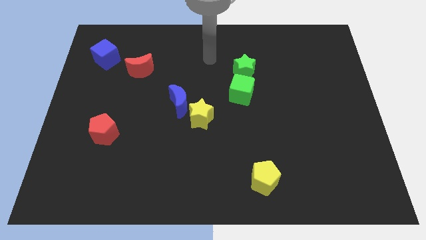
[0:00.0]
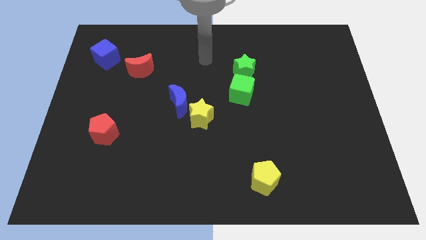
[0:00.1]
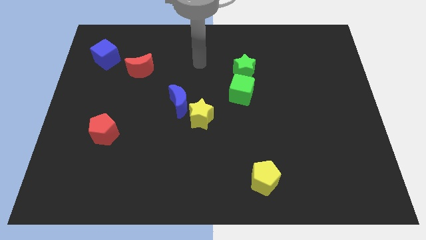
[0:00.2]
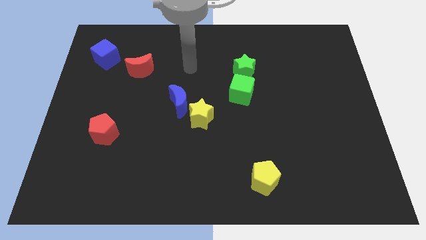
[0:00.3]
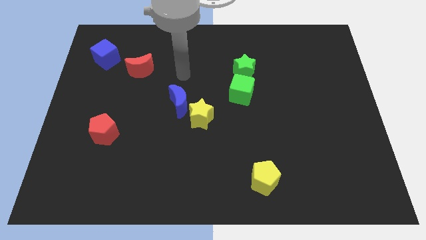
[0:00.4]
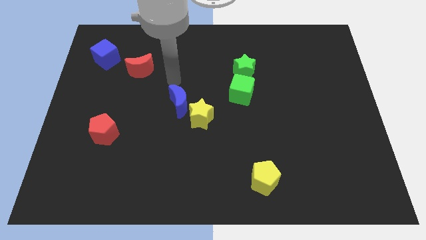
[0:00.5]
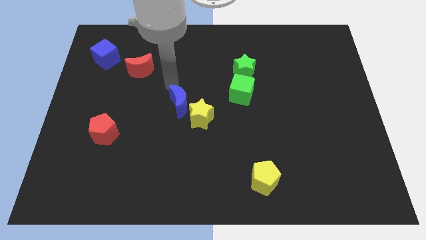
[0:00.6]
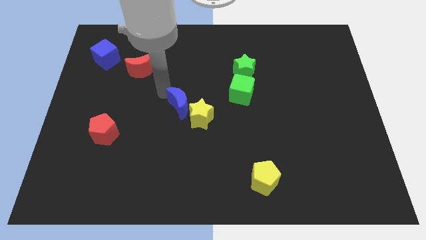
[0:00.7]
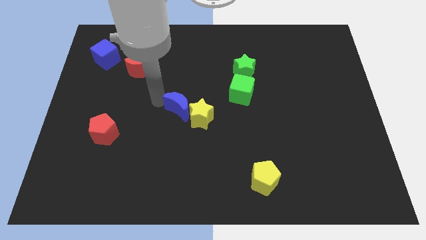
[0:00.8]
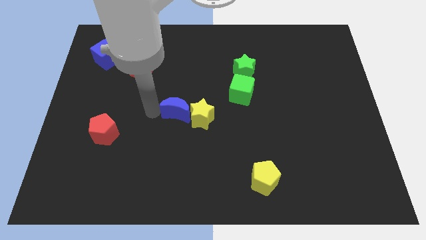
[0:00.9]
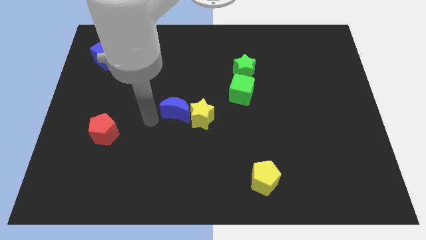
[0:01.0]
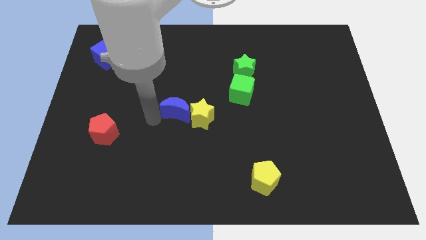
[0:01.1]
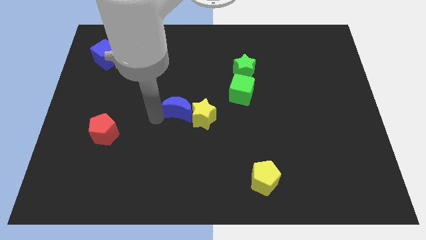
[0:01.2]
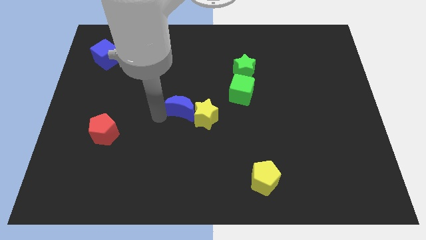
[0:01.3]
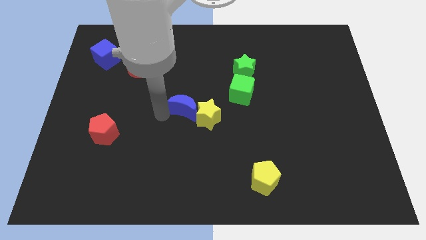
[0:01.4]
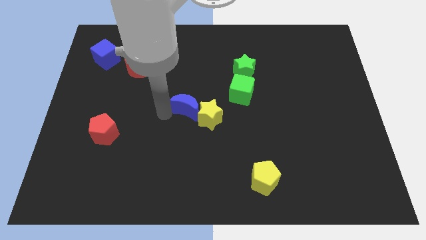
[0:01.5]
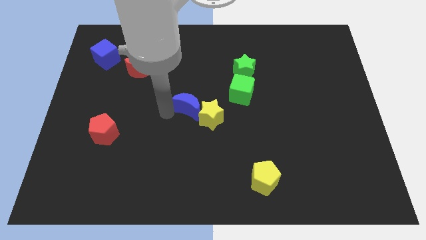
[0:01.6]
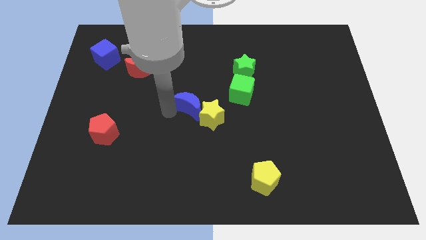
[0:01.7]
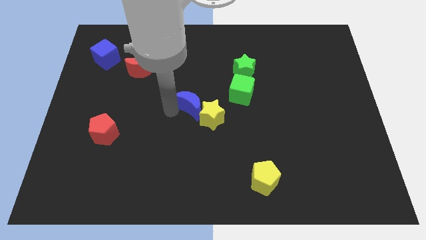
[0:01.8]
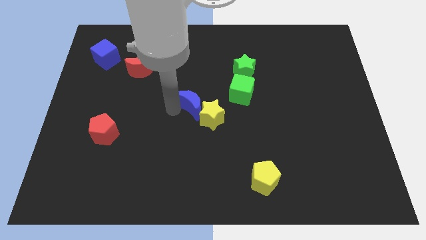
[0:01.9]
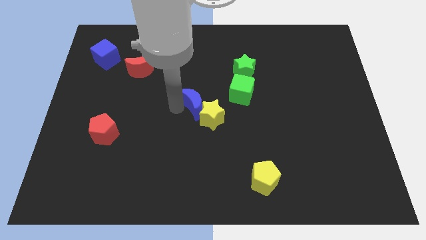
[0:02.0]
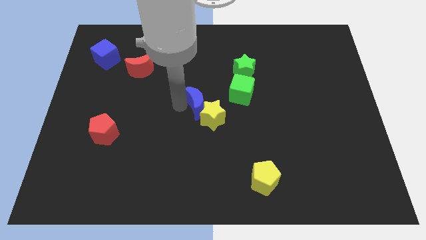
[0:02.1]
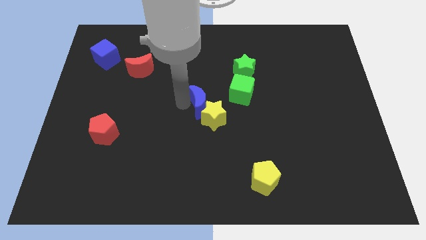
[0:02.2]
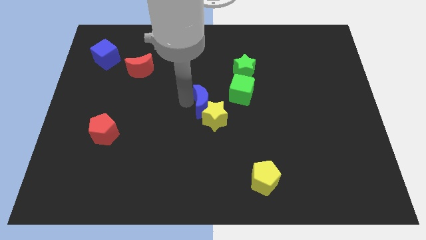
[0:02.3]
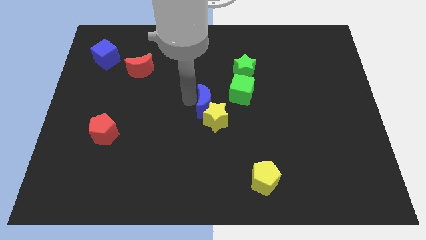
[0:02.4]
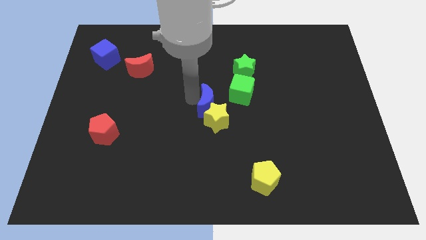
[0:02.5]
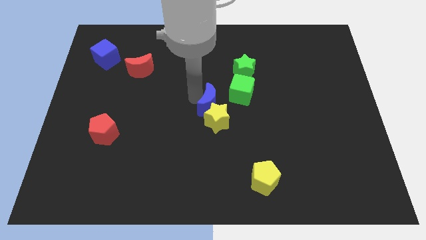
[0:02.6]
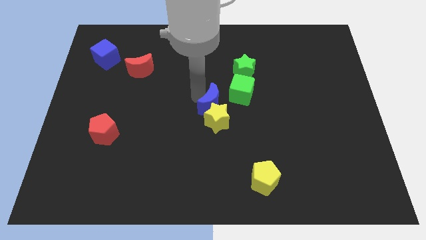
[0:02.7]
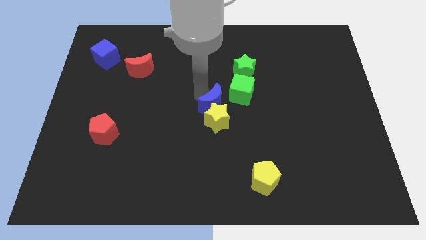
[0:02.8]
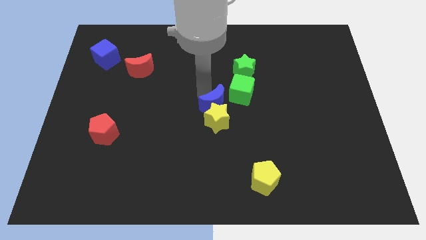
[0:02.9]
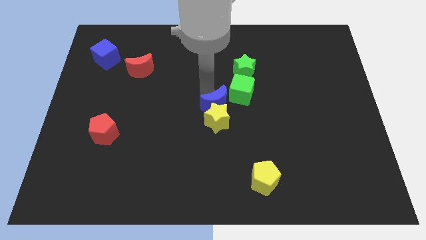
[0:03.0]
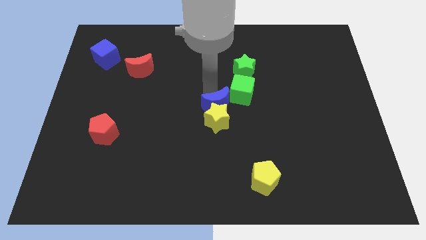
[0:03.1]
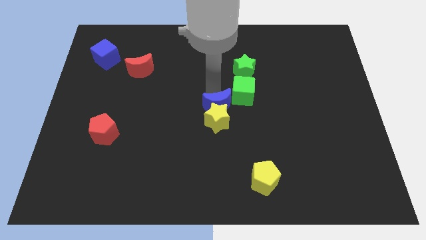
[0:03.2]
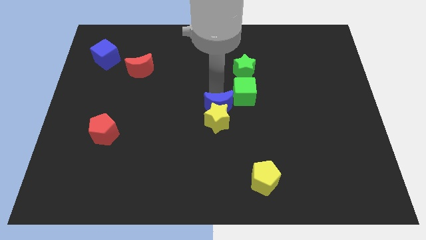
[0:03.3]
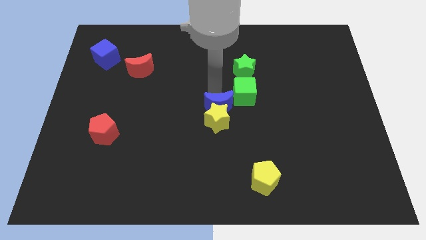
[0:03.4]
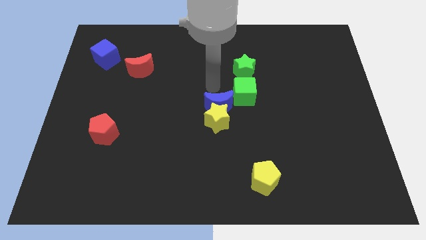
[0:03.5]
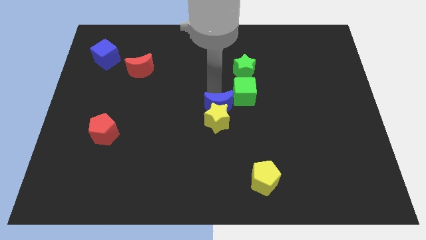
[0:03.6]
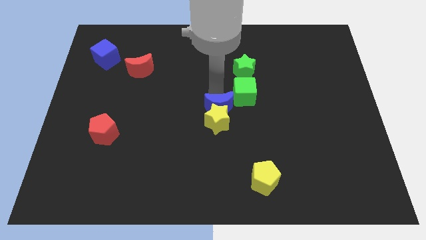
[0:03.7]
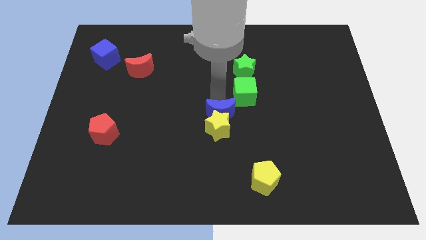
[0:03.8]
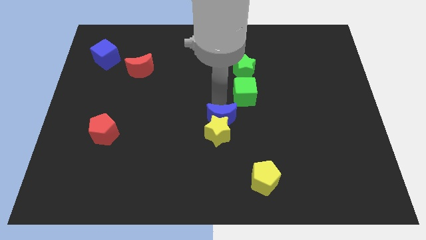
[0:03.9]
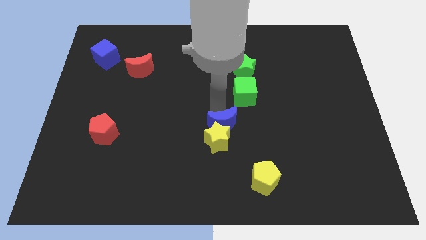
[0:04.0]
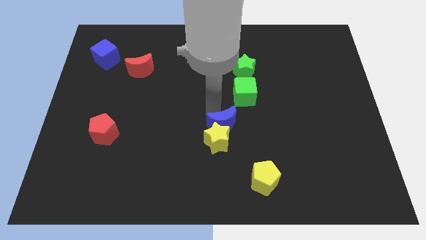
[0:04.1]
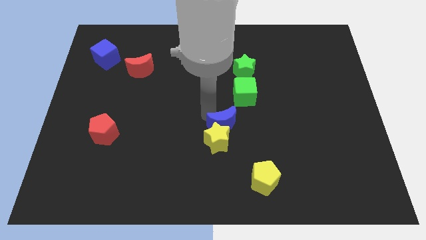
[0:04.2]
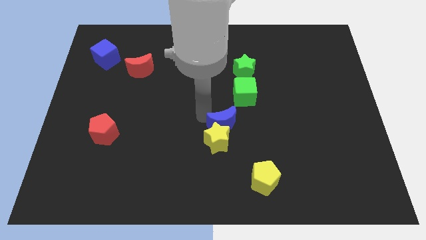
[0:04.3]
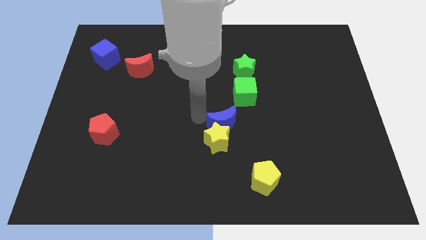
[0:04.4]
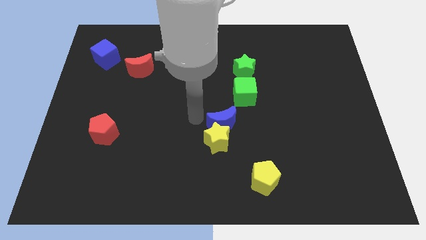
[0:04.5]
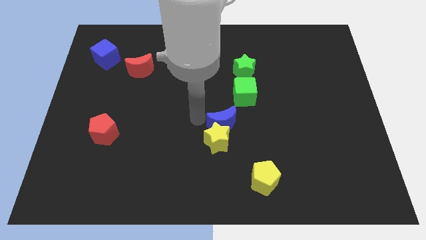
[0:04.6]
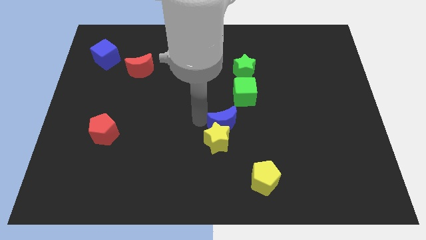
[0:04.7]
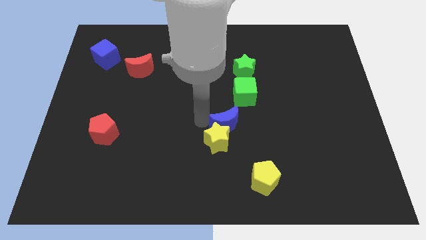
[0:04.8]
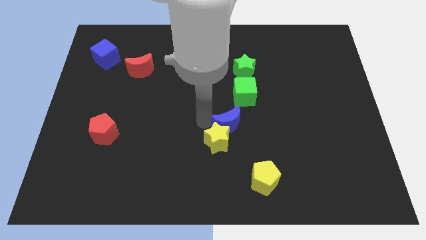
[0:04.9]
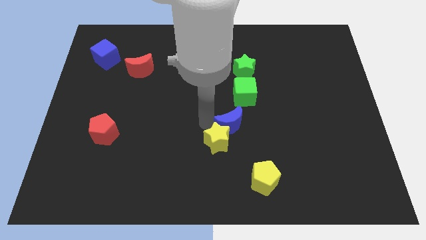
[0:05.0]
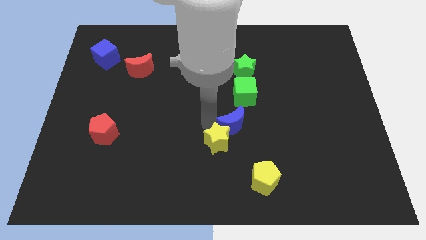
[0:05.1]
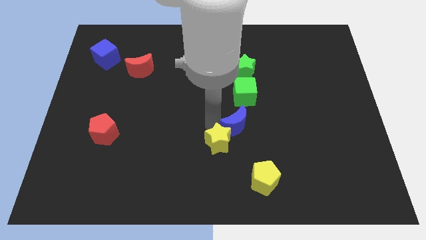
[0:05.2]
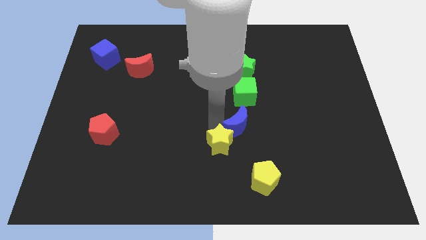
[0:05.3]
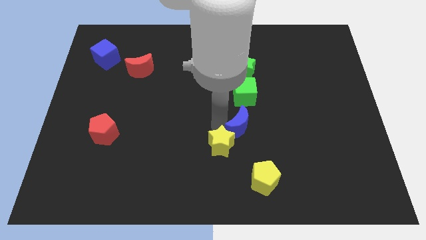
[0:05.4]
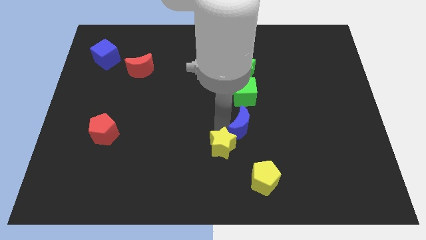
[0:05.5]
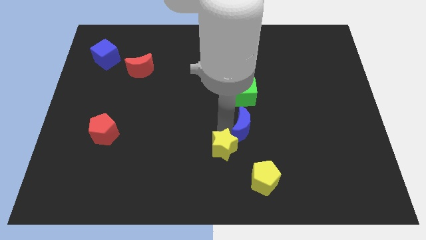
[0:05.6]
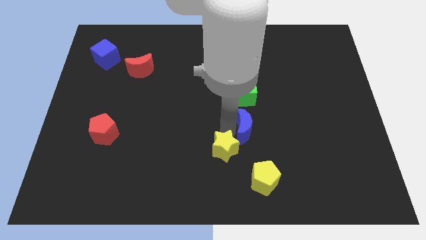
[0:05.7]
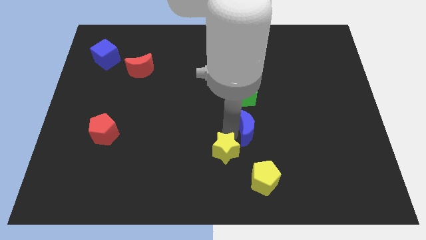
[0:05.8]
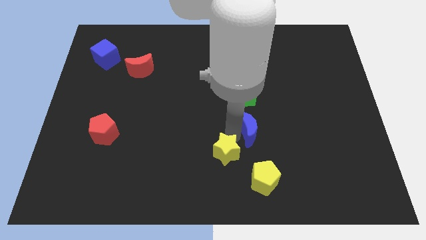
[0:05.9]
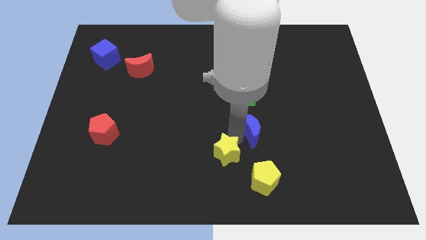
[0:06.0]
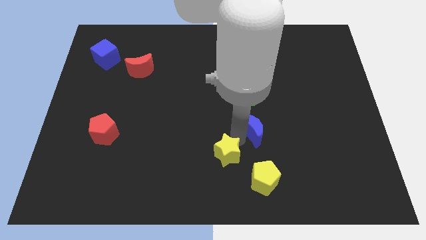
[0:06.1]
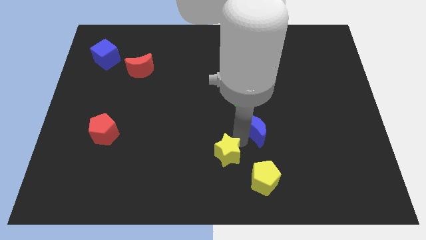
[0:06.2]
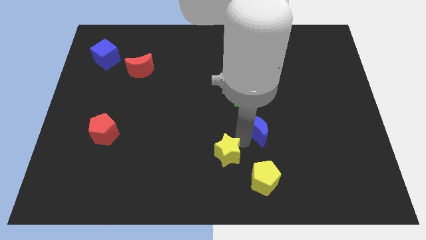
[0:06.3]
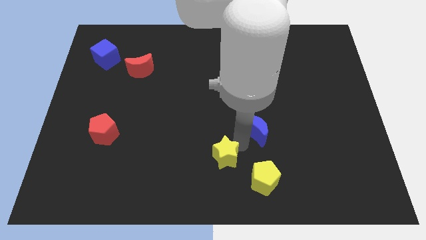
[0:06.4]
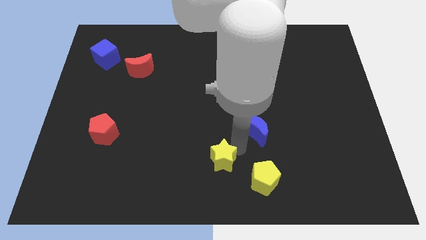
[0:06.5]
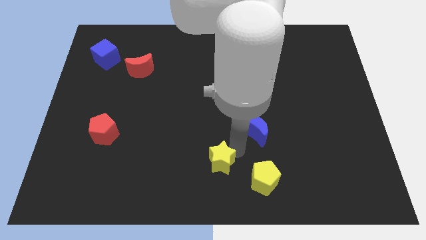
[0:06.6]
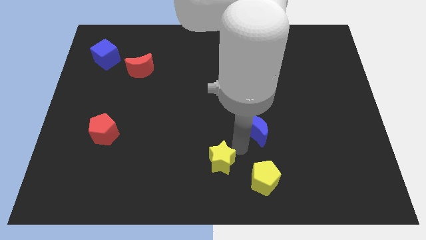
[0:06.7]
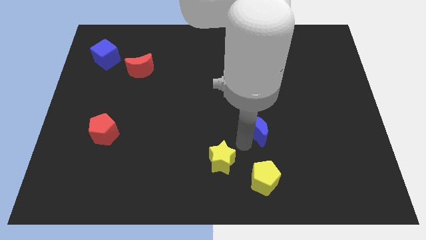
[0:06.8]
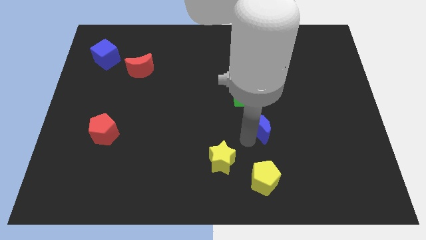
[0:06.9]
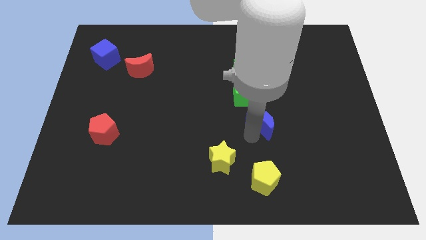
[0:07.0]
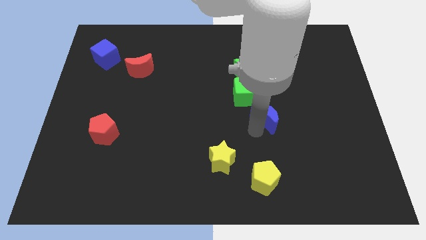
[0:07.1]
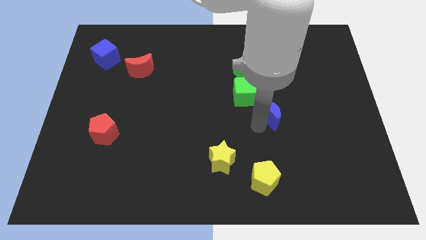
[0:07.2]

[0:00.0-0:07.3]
slide the blue moon right

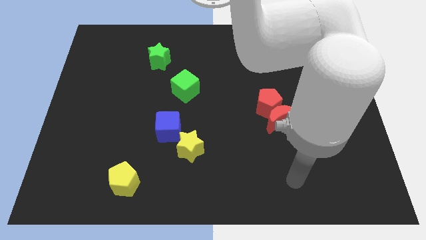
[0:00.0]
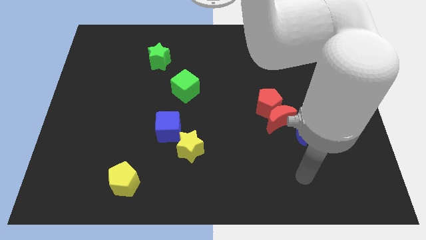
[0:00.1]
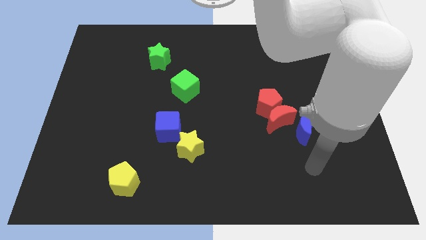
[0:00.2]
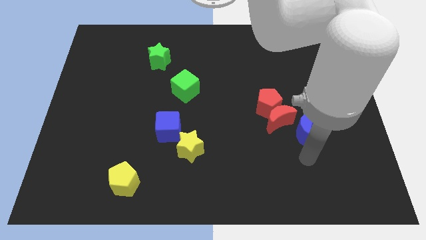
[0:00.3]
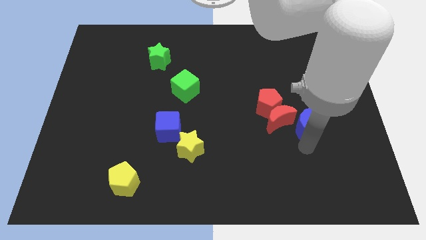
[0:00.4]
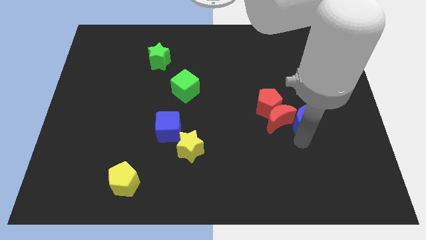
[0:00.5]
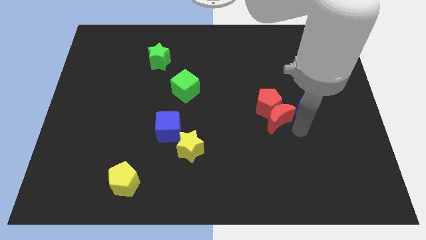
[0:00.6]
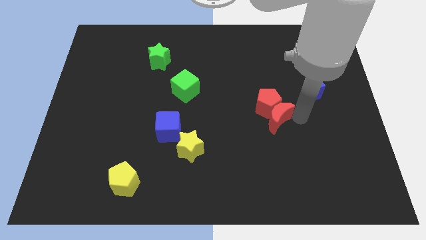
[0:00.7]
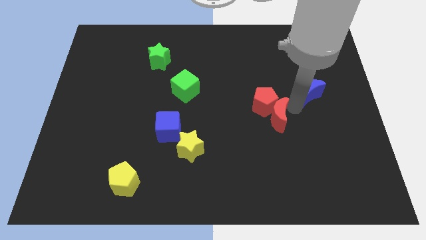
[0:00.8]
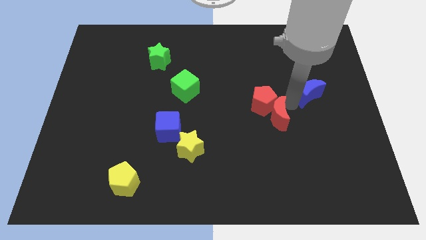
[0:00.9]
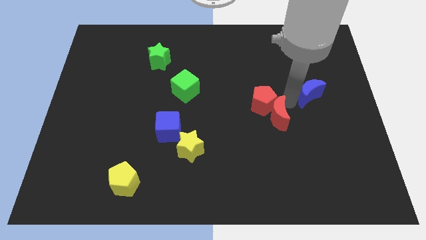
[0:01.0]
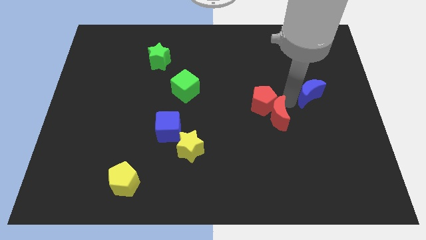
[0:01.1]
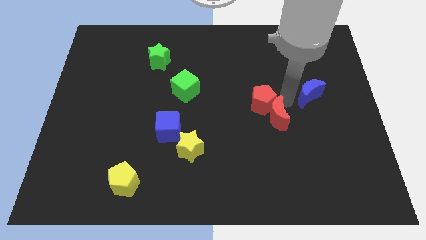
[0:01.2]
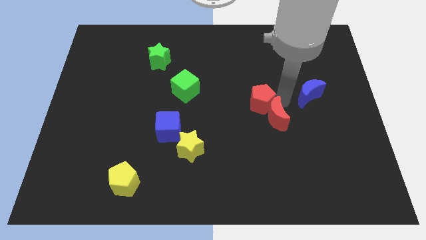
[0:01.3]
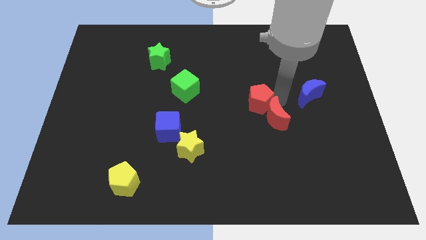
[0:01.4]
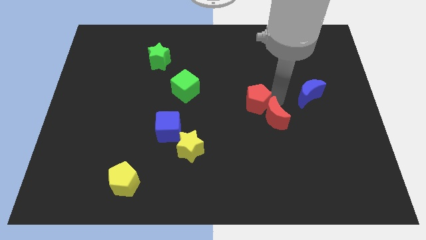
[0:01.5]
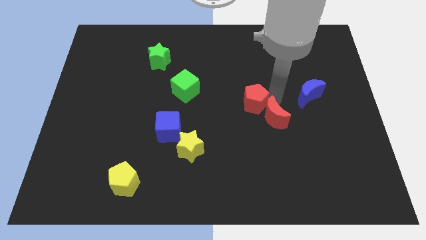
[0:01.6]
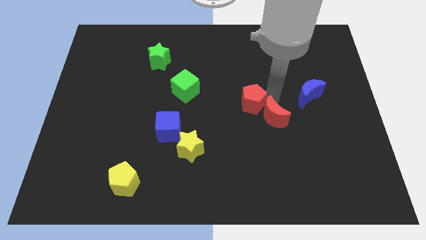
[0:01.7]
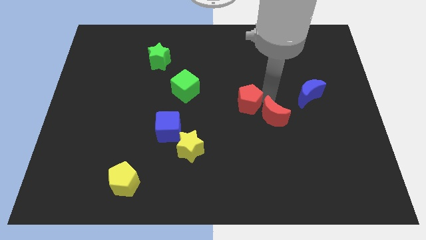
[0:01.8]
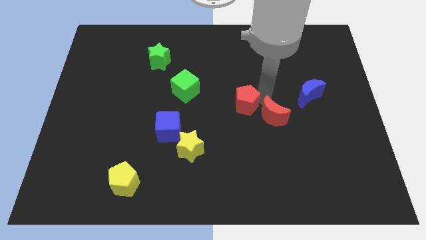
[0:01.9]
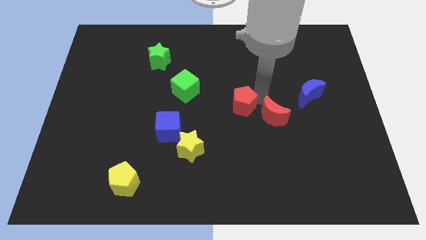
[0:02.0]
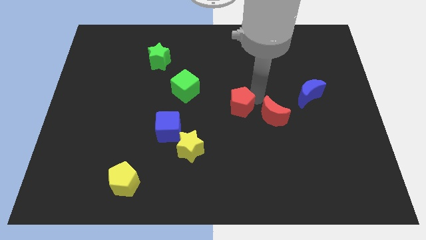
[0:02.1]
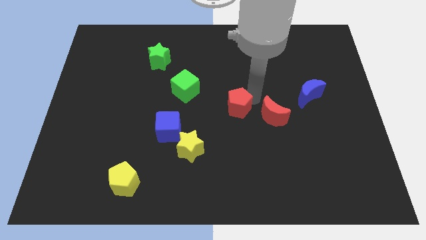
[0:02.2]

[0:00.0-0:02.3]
slide the red pentagon left somewhat
